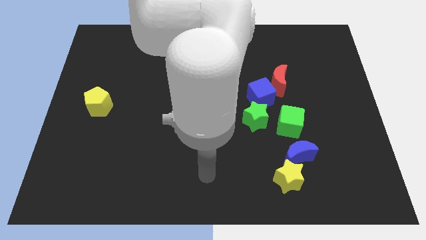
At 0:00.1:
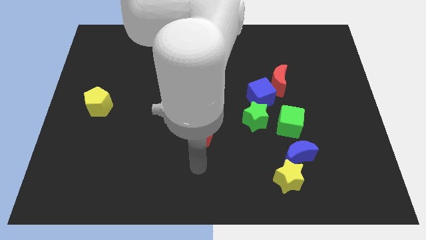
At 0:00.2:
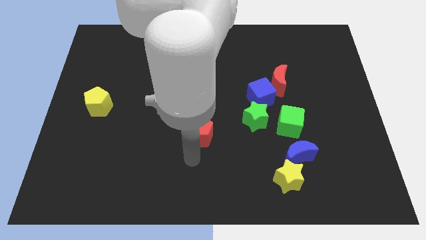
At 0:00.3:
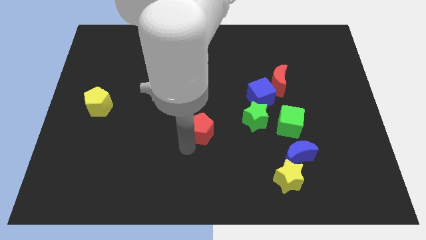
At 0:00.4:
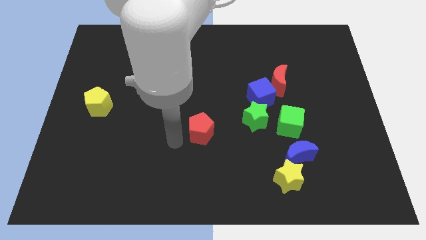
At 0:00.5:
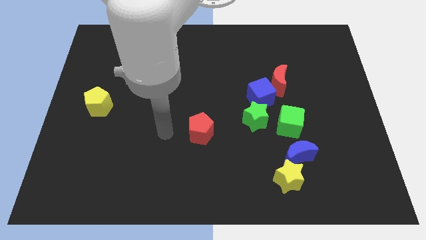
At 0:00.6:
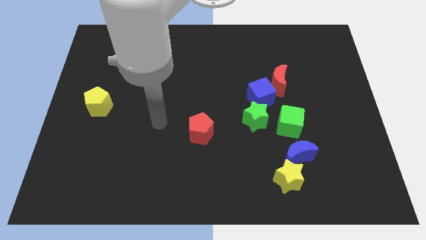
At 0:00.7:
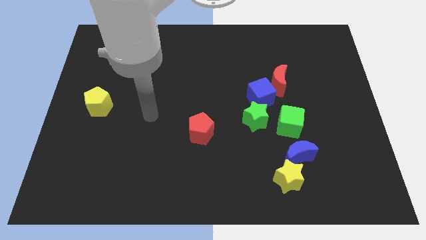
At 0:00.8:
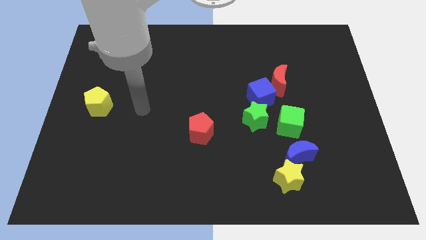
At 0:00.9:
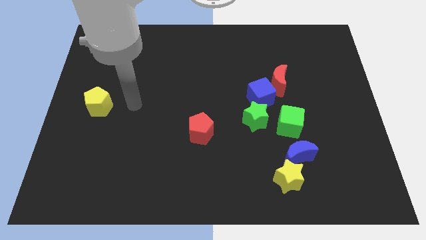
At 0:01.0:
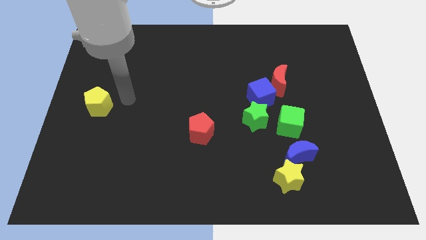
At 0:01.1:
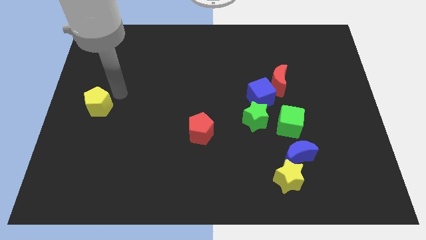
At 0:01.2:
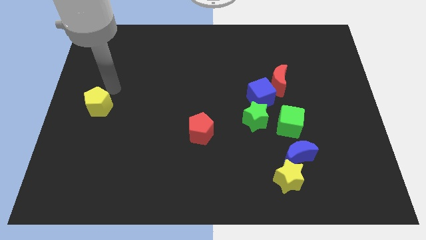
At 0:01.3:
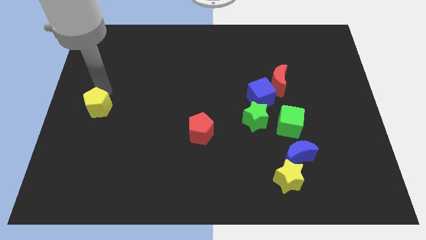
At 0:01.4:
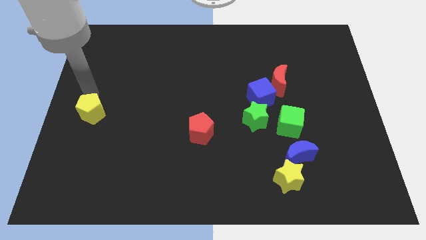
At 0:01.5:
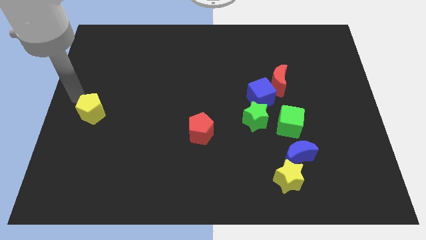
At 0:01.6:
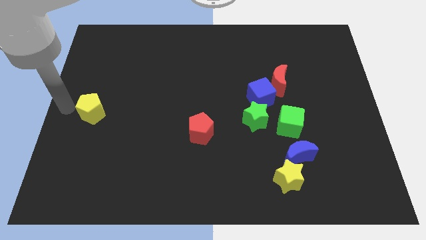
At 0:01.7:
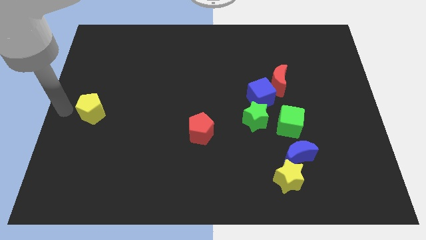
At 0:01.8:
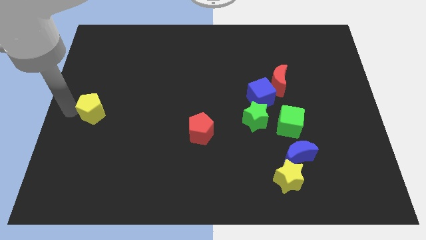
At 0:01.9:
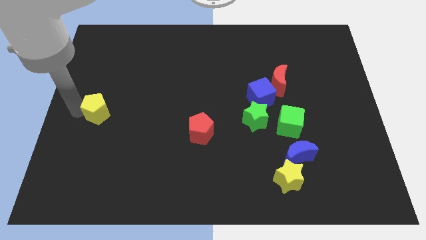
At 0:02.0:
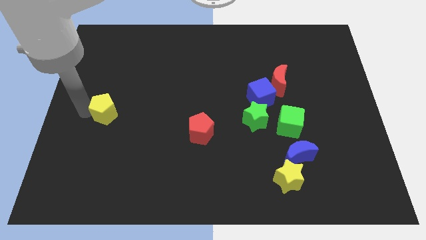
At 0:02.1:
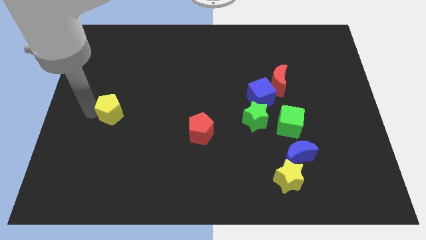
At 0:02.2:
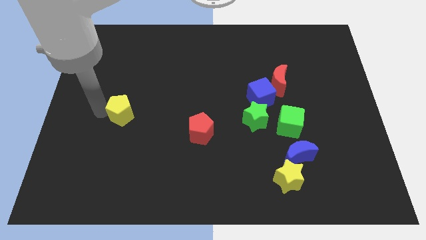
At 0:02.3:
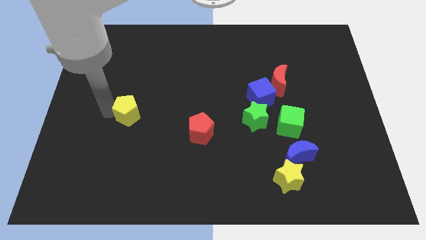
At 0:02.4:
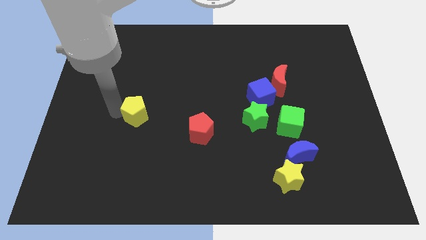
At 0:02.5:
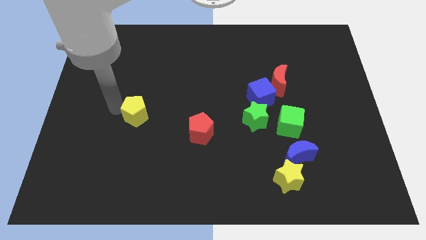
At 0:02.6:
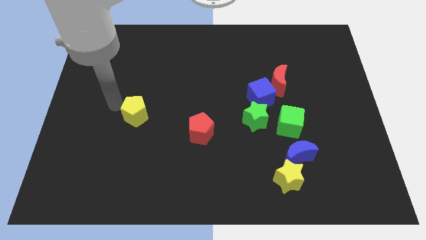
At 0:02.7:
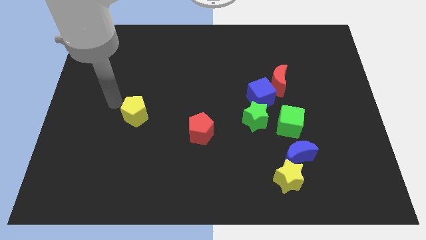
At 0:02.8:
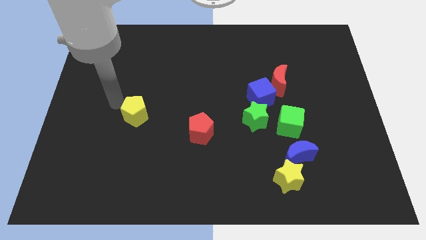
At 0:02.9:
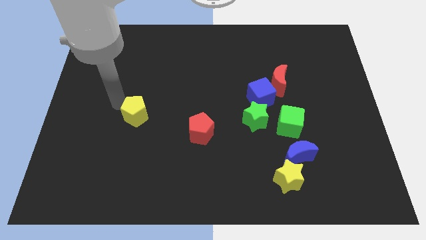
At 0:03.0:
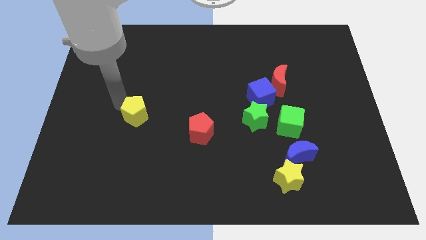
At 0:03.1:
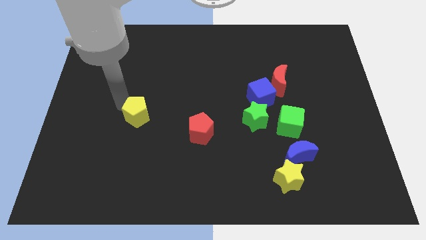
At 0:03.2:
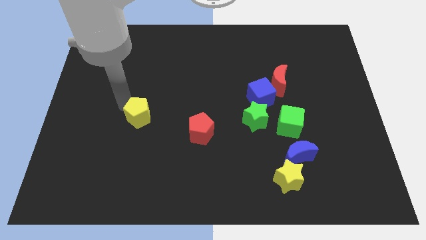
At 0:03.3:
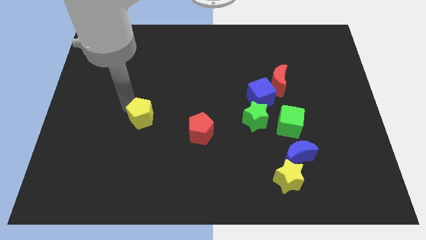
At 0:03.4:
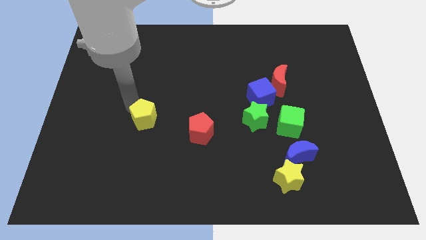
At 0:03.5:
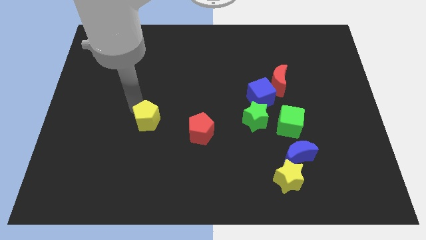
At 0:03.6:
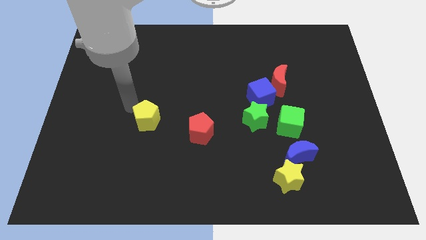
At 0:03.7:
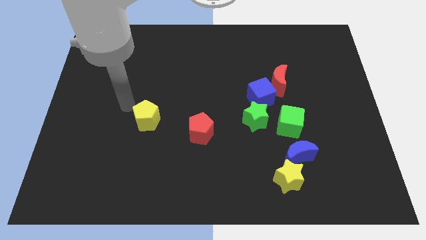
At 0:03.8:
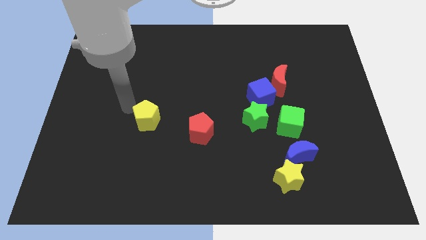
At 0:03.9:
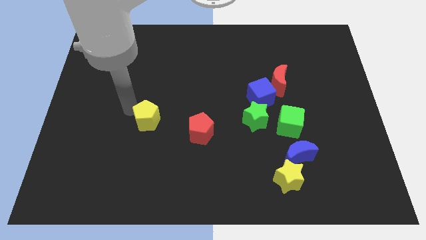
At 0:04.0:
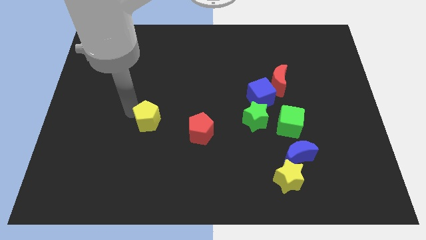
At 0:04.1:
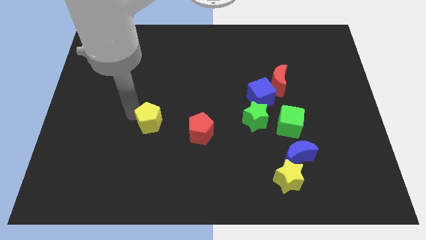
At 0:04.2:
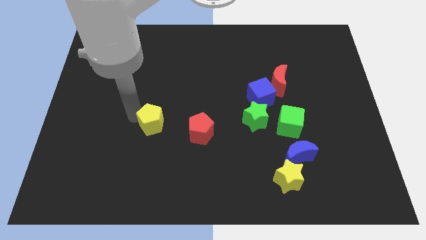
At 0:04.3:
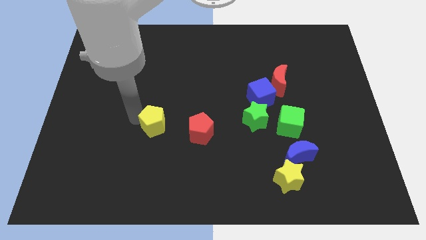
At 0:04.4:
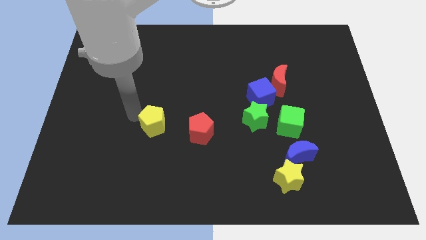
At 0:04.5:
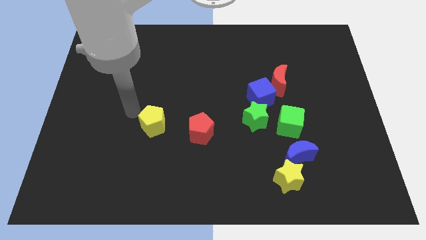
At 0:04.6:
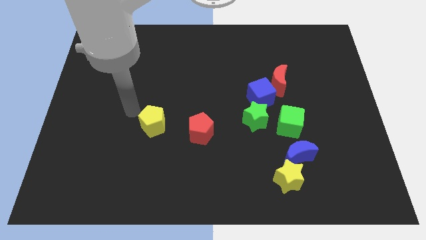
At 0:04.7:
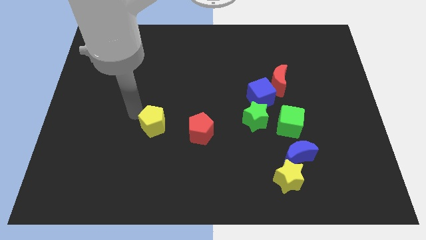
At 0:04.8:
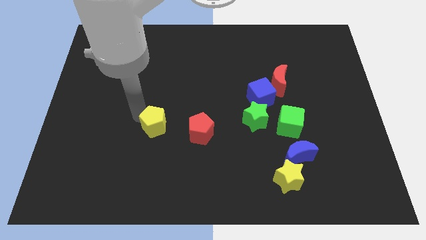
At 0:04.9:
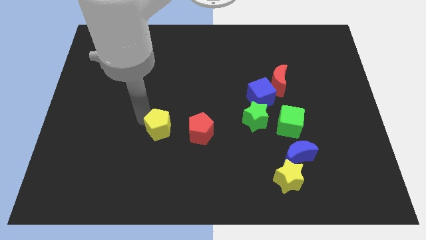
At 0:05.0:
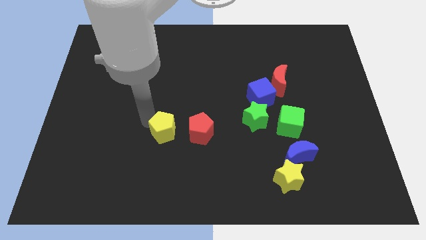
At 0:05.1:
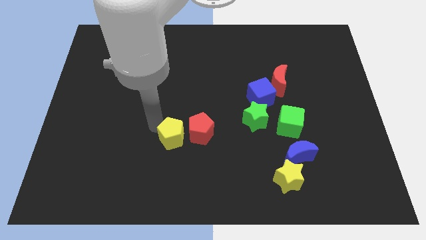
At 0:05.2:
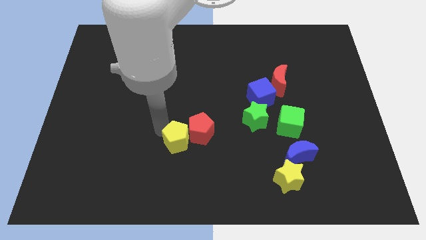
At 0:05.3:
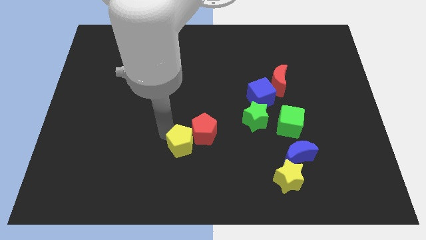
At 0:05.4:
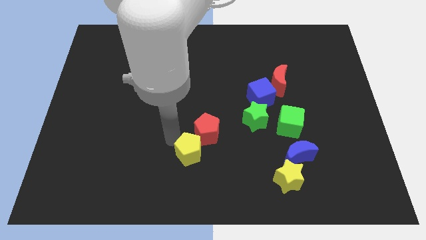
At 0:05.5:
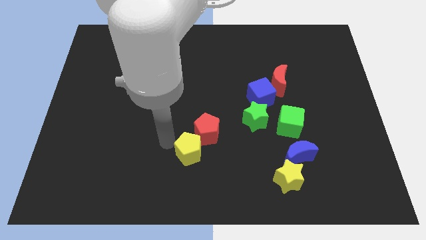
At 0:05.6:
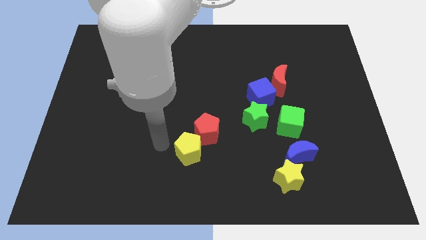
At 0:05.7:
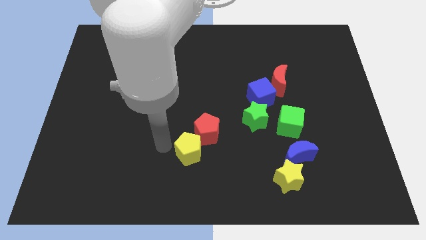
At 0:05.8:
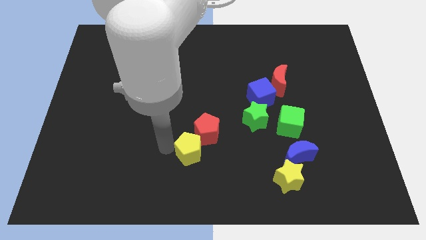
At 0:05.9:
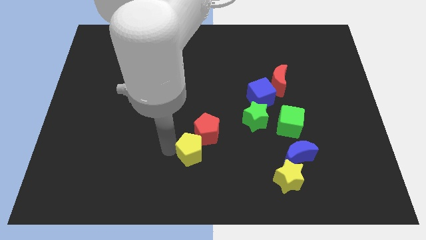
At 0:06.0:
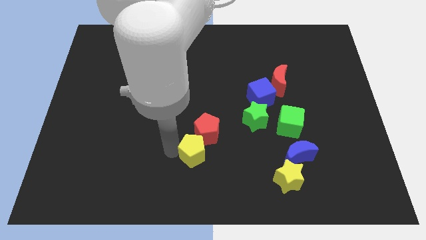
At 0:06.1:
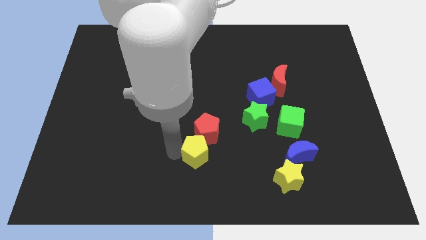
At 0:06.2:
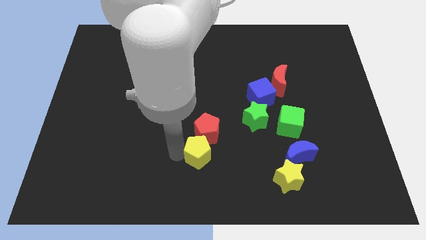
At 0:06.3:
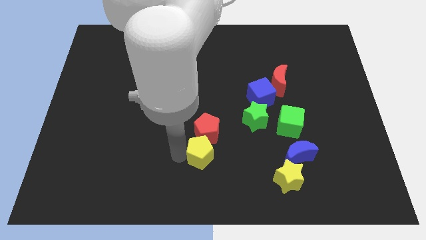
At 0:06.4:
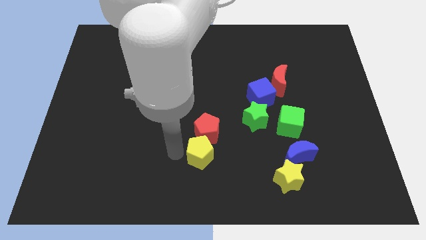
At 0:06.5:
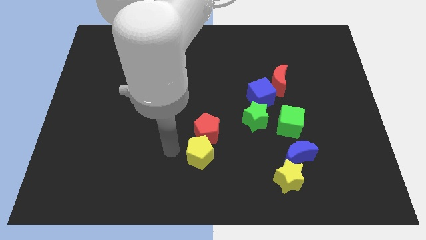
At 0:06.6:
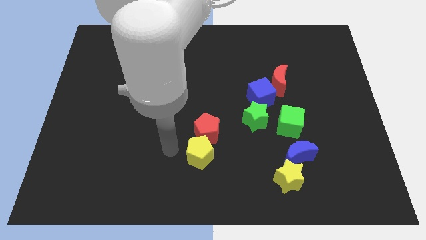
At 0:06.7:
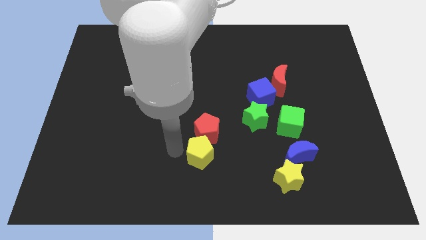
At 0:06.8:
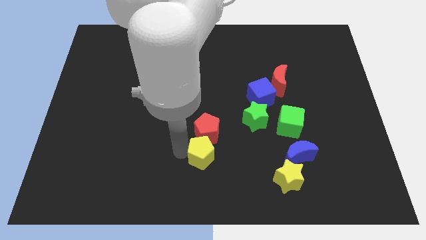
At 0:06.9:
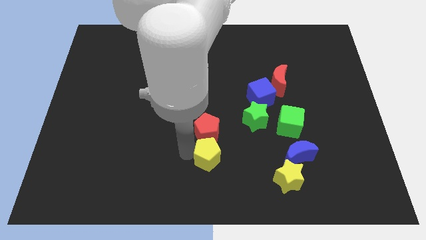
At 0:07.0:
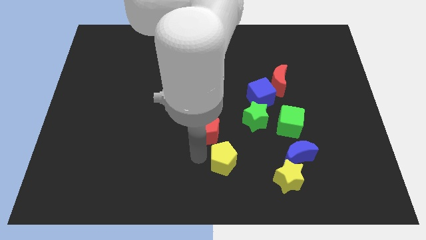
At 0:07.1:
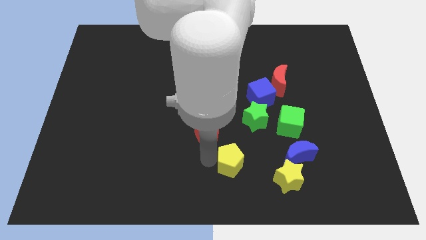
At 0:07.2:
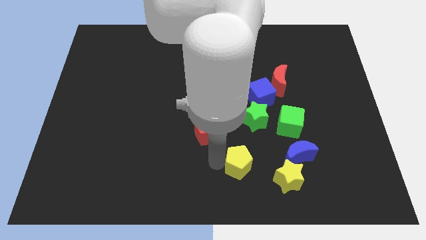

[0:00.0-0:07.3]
slide the yellow pentagon to the bottom side of the green star
